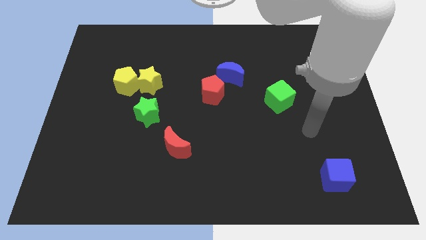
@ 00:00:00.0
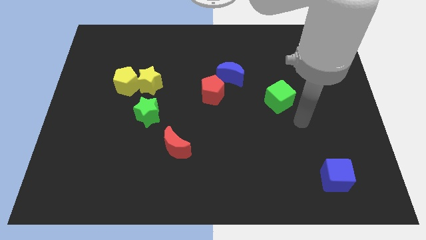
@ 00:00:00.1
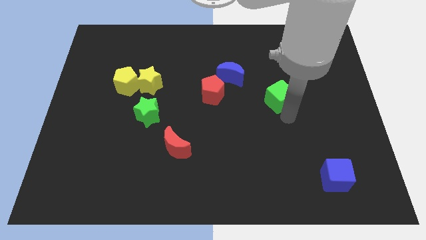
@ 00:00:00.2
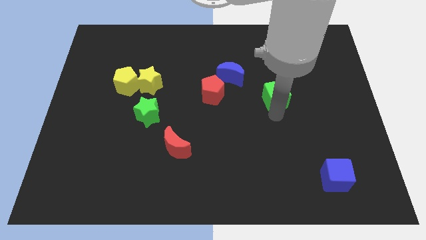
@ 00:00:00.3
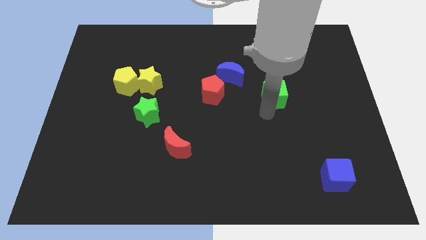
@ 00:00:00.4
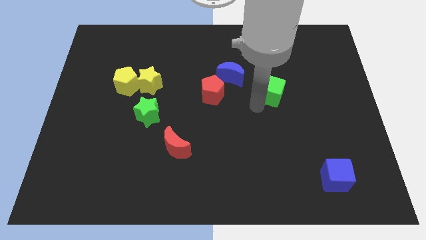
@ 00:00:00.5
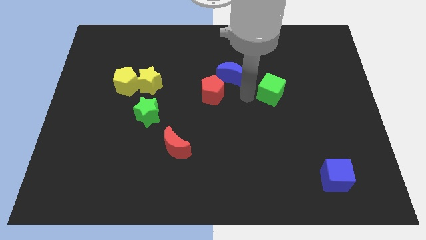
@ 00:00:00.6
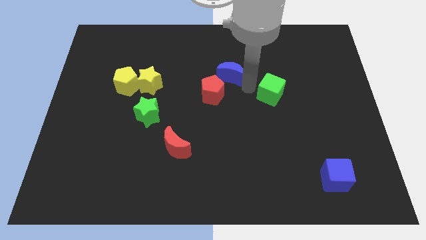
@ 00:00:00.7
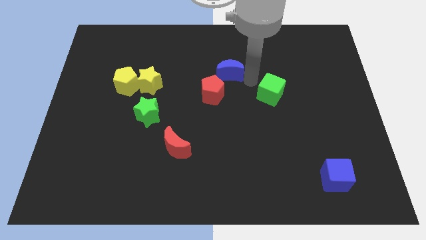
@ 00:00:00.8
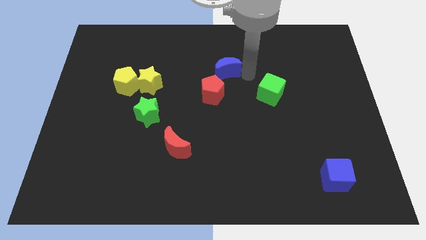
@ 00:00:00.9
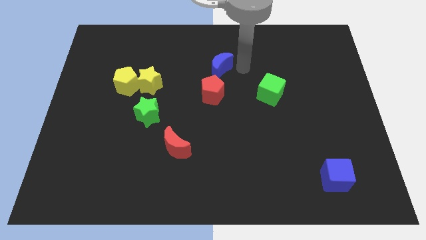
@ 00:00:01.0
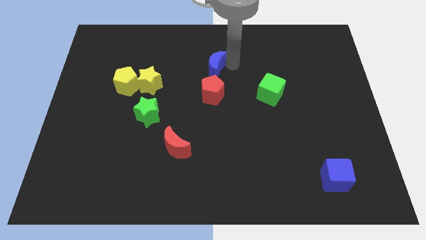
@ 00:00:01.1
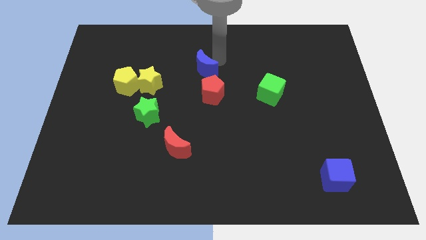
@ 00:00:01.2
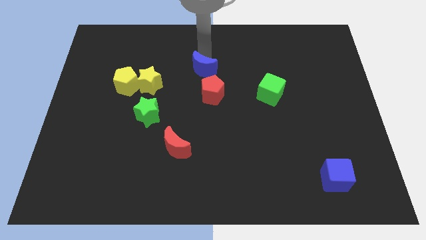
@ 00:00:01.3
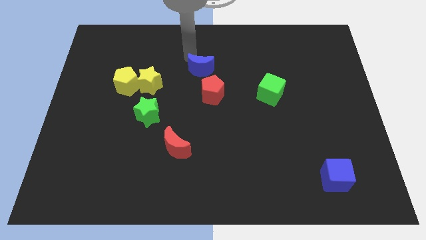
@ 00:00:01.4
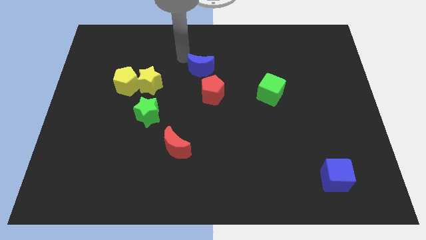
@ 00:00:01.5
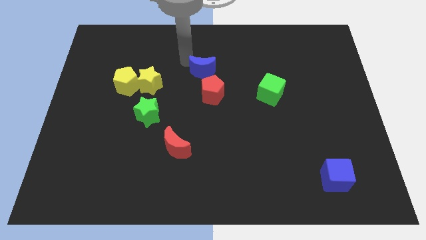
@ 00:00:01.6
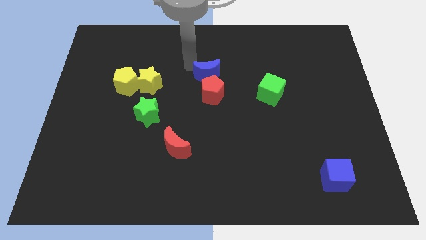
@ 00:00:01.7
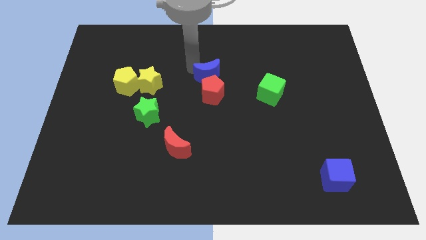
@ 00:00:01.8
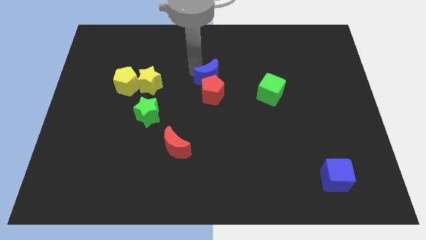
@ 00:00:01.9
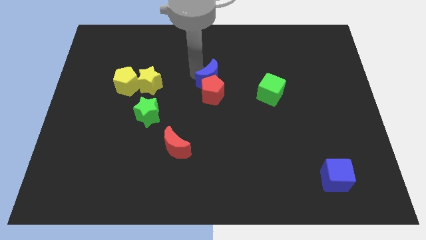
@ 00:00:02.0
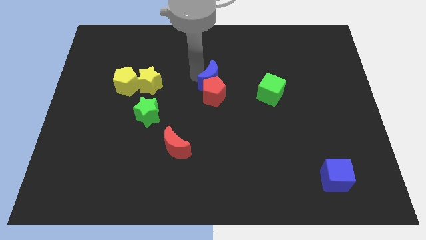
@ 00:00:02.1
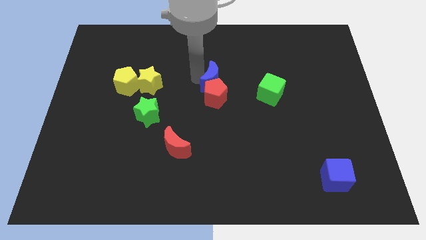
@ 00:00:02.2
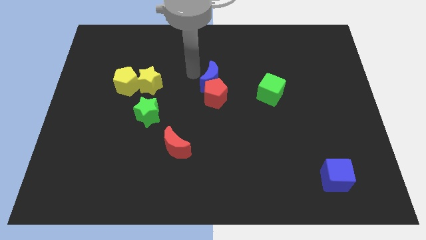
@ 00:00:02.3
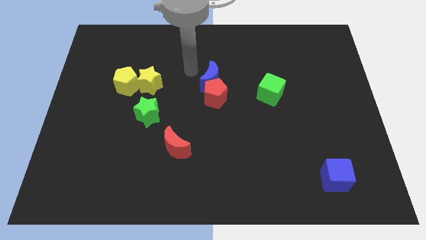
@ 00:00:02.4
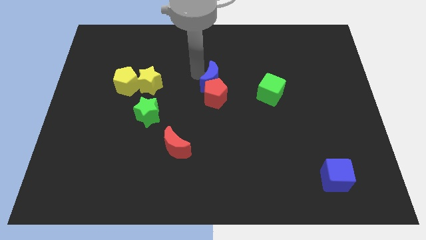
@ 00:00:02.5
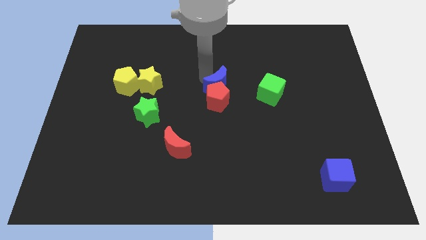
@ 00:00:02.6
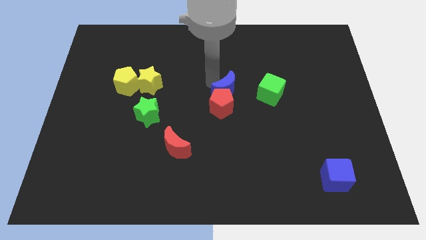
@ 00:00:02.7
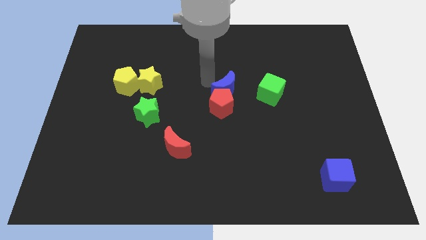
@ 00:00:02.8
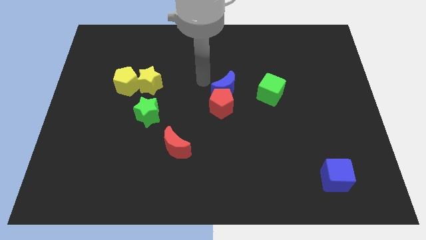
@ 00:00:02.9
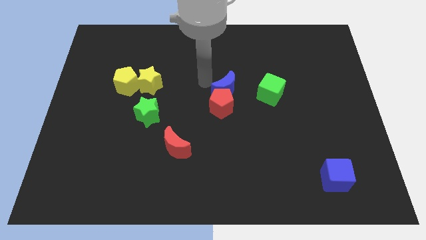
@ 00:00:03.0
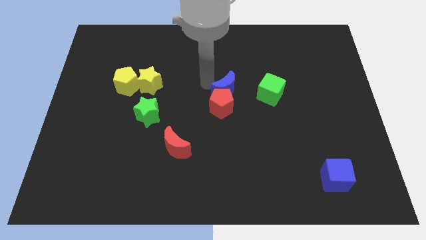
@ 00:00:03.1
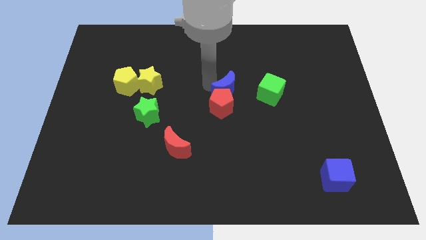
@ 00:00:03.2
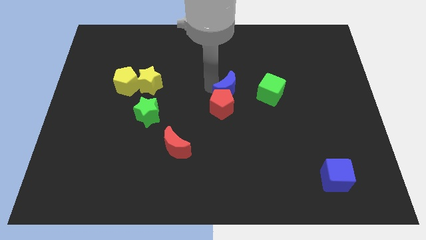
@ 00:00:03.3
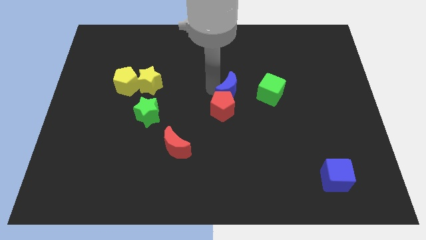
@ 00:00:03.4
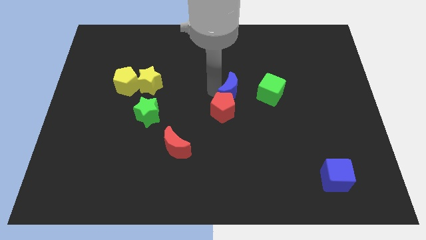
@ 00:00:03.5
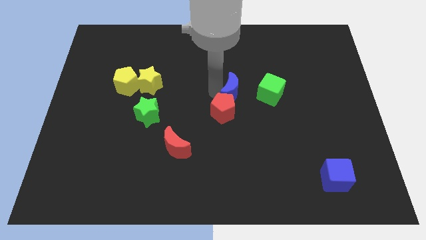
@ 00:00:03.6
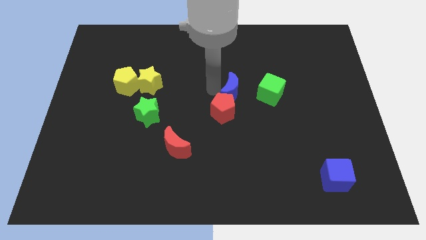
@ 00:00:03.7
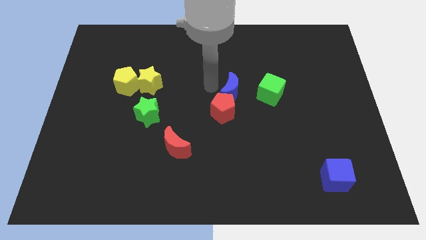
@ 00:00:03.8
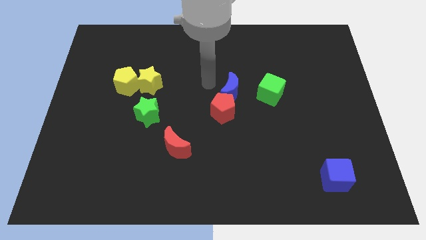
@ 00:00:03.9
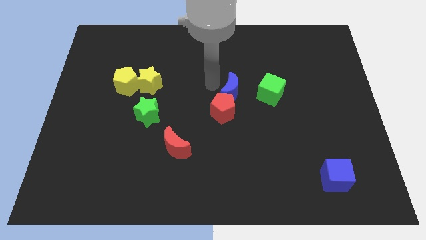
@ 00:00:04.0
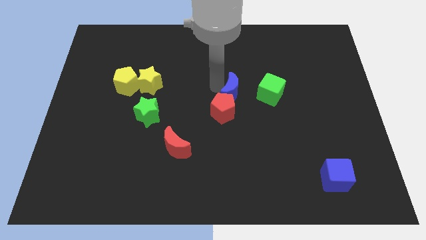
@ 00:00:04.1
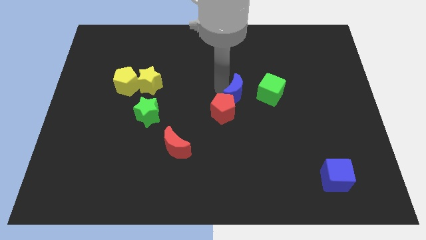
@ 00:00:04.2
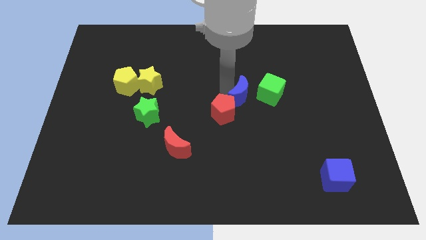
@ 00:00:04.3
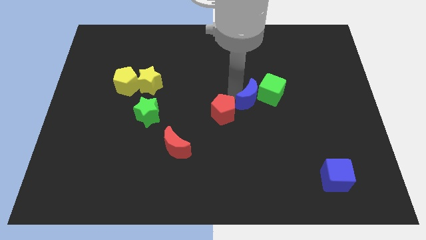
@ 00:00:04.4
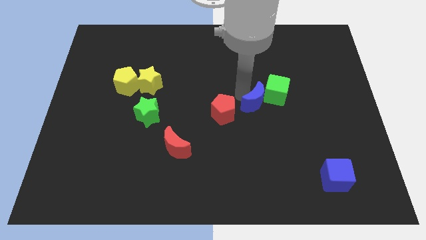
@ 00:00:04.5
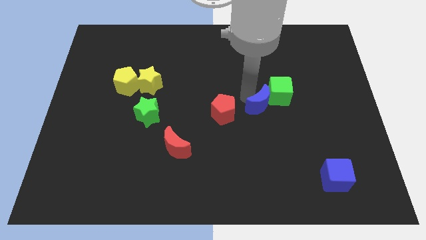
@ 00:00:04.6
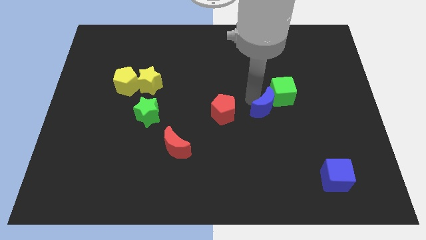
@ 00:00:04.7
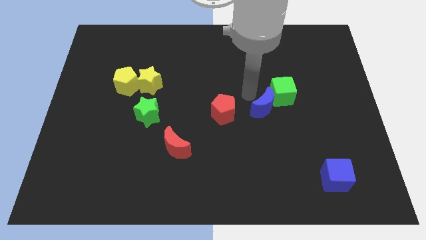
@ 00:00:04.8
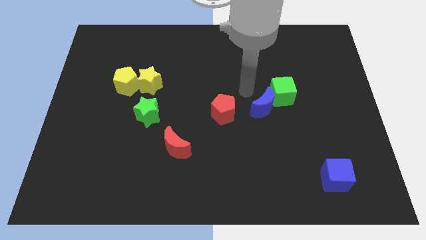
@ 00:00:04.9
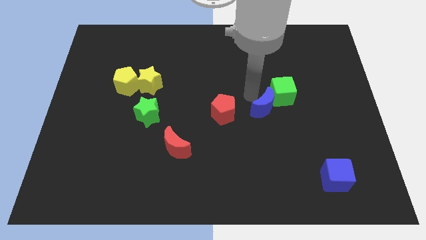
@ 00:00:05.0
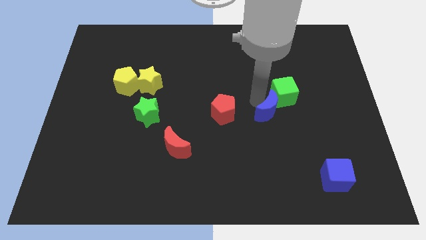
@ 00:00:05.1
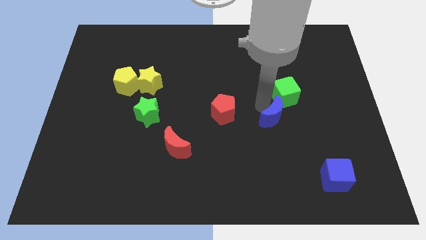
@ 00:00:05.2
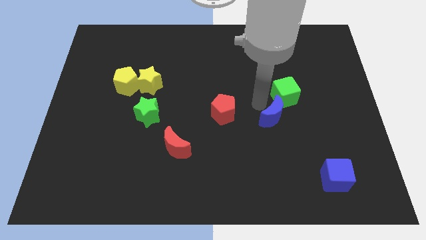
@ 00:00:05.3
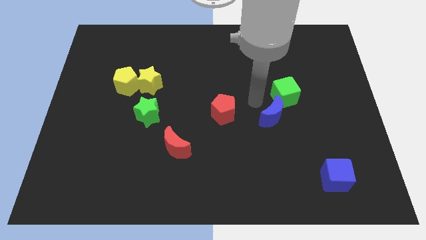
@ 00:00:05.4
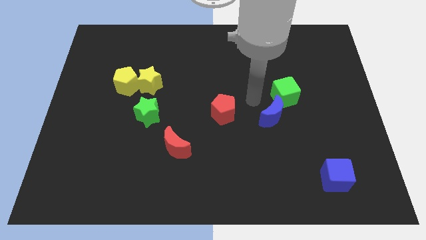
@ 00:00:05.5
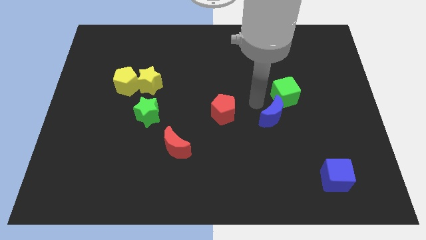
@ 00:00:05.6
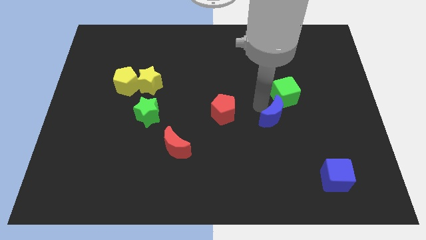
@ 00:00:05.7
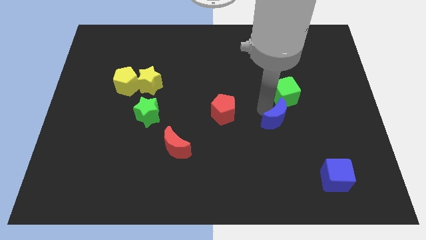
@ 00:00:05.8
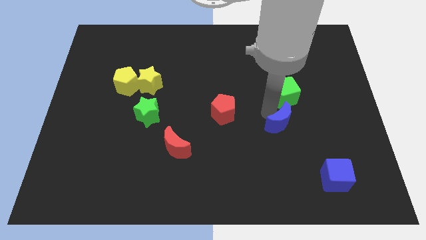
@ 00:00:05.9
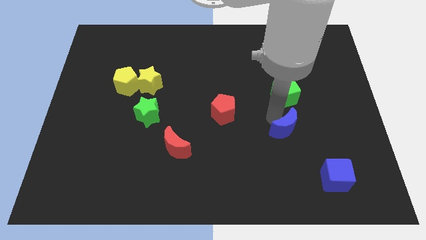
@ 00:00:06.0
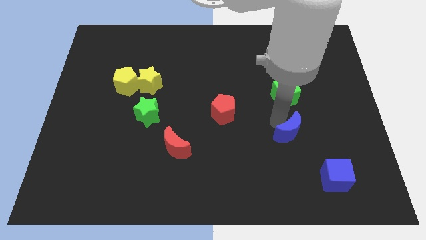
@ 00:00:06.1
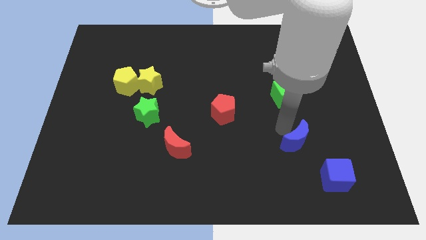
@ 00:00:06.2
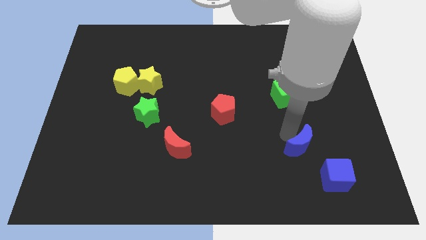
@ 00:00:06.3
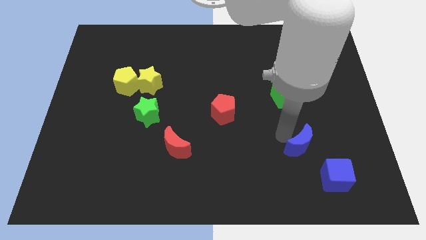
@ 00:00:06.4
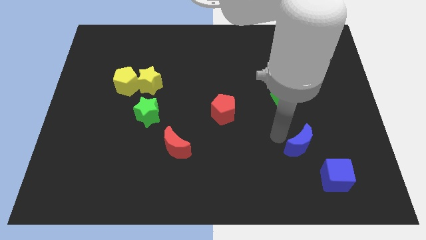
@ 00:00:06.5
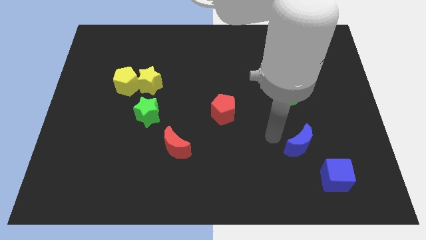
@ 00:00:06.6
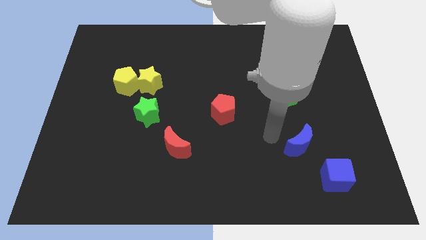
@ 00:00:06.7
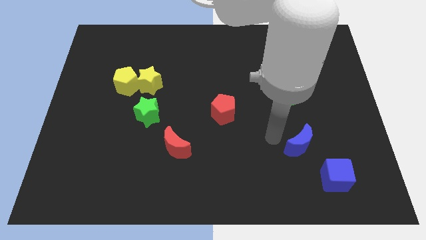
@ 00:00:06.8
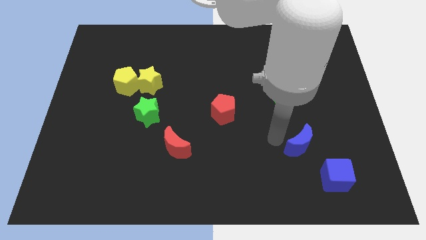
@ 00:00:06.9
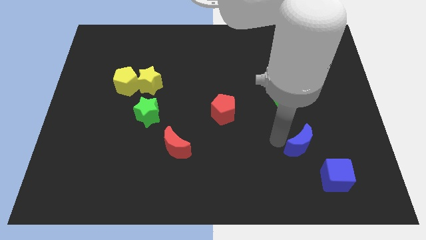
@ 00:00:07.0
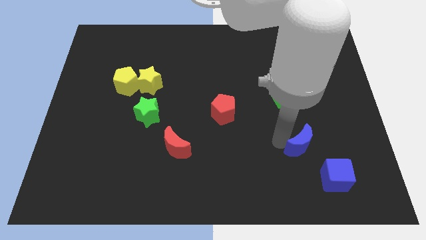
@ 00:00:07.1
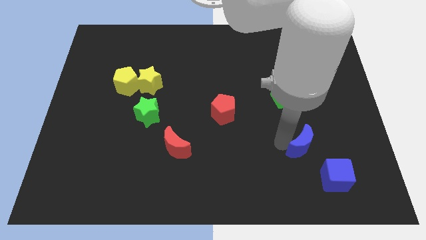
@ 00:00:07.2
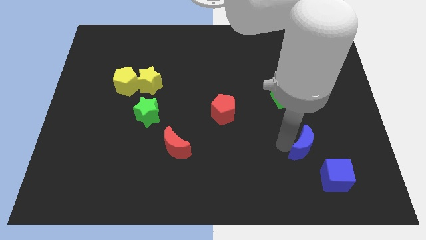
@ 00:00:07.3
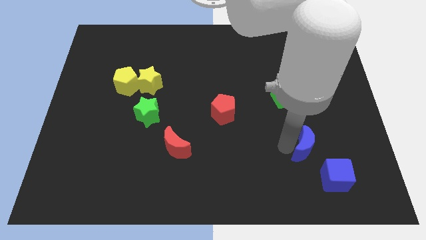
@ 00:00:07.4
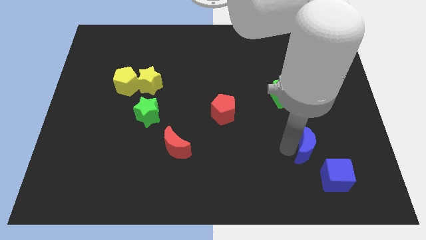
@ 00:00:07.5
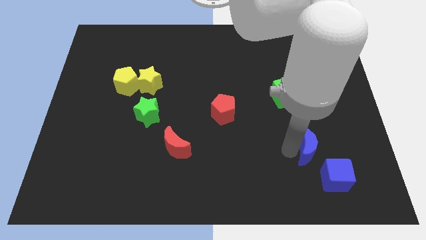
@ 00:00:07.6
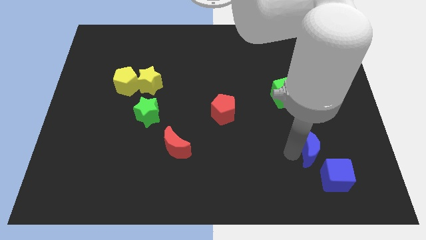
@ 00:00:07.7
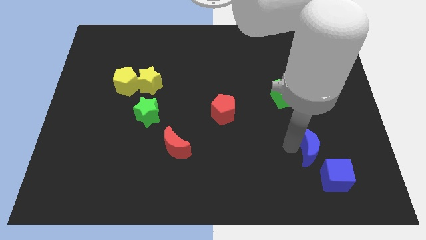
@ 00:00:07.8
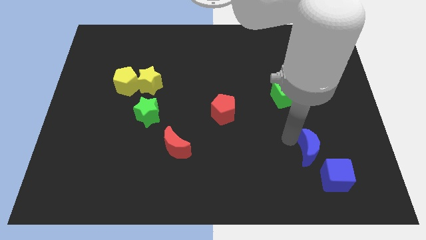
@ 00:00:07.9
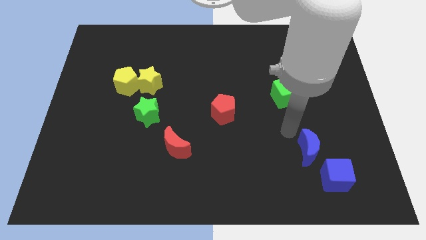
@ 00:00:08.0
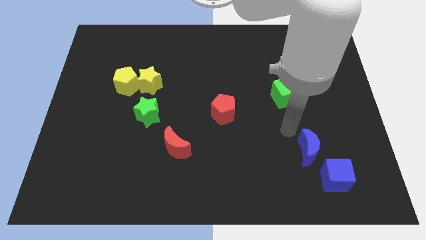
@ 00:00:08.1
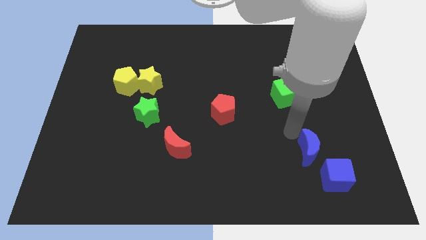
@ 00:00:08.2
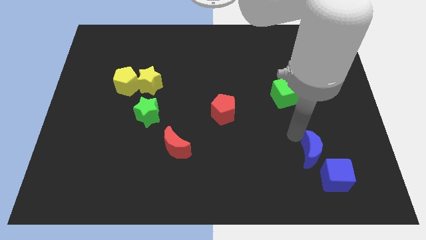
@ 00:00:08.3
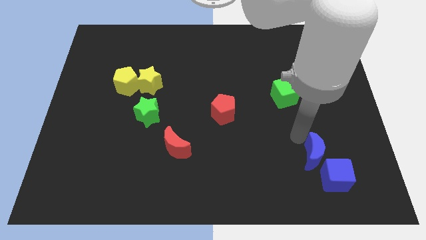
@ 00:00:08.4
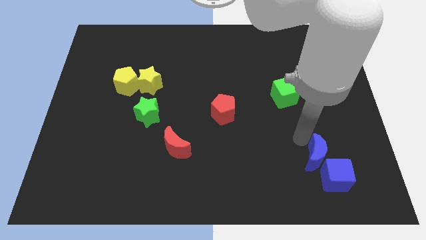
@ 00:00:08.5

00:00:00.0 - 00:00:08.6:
slide the blue moon close to the blue cube
